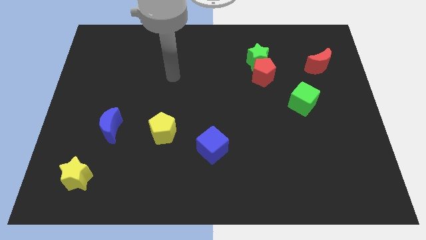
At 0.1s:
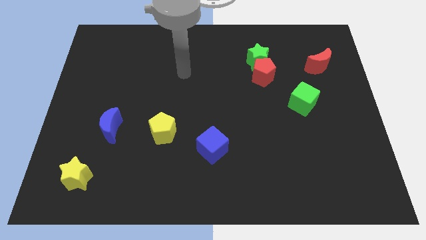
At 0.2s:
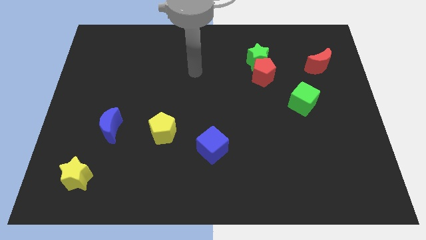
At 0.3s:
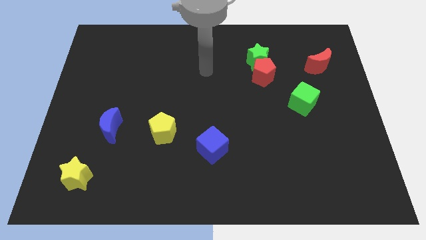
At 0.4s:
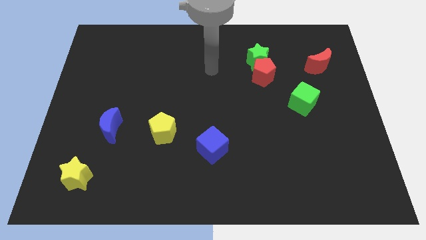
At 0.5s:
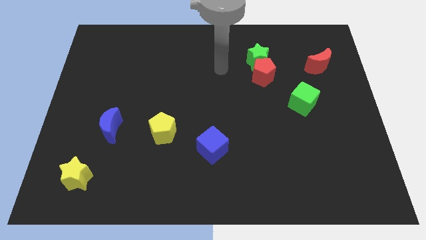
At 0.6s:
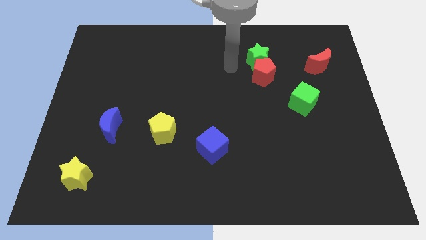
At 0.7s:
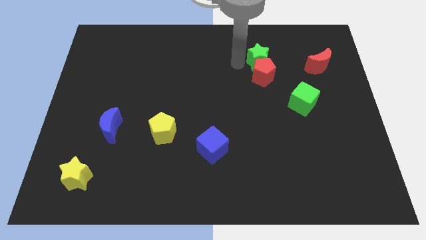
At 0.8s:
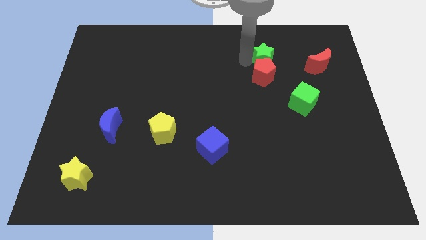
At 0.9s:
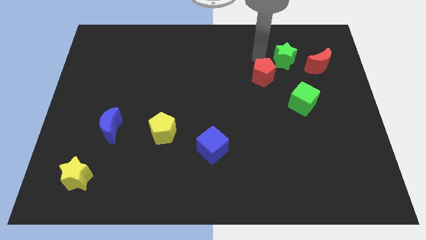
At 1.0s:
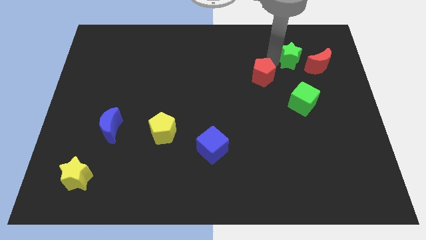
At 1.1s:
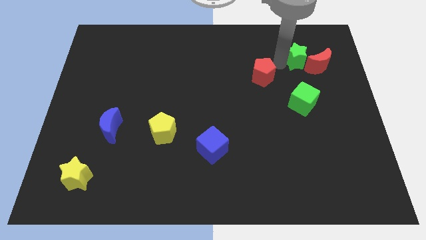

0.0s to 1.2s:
pull the red pentagon apart from the green star

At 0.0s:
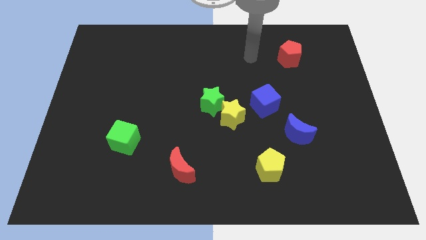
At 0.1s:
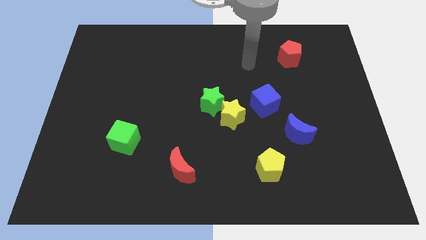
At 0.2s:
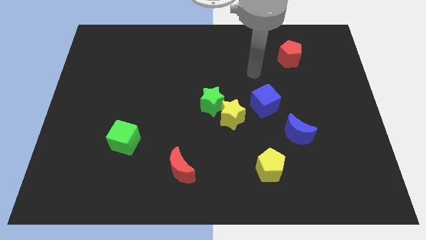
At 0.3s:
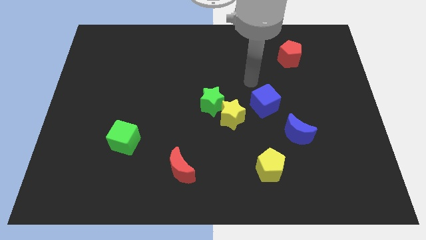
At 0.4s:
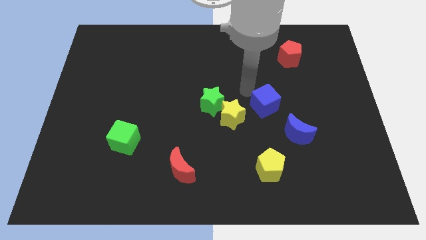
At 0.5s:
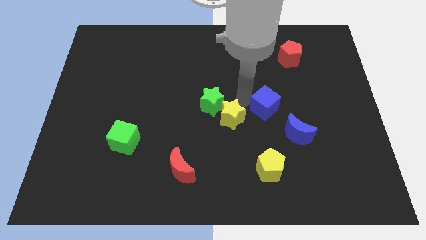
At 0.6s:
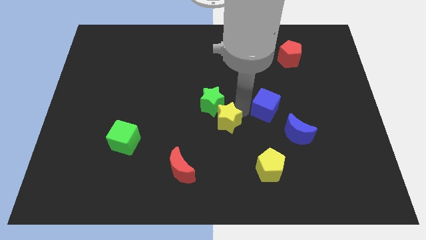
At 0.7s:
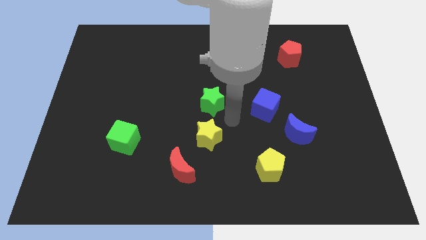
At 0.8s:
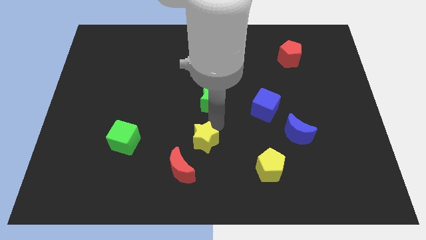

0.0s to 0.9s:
move the green star away from the yellow star

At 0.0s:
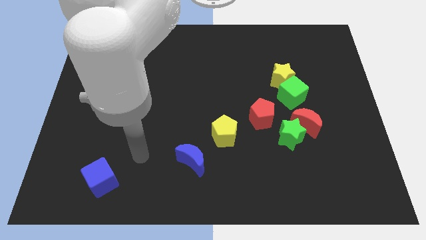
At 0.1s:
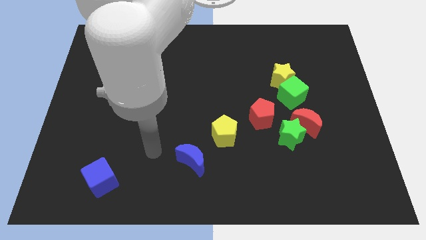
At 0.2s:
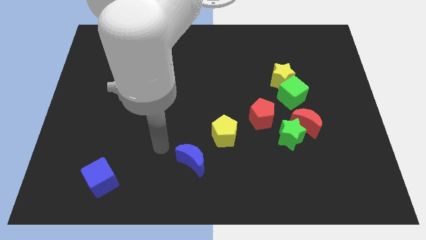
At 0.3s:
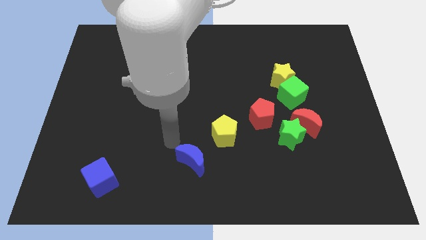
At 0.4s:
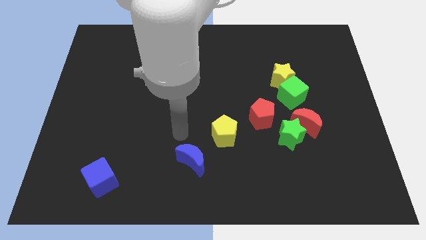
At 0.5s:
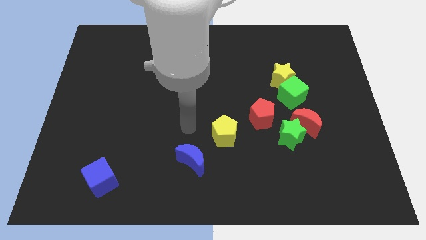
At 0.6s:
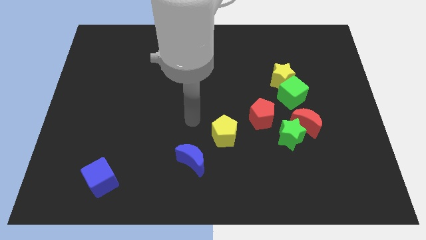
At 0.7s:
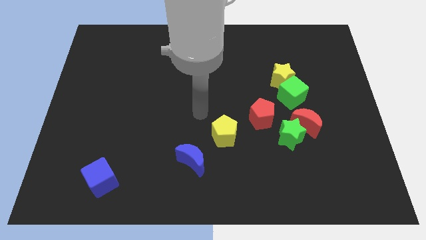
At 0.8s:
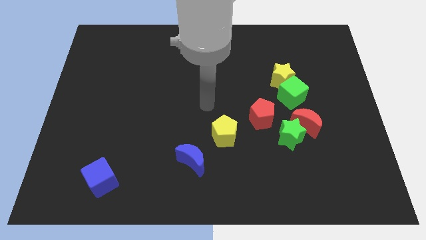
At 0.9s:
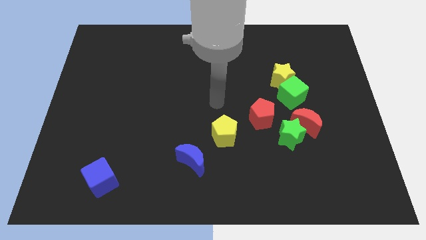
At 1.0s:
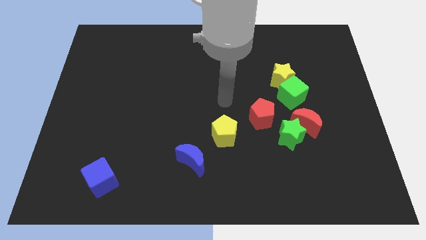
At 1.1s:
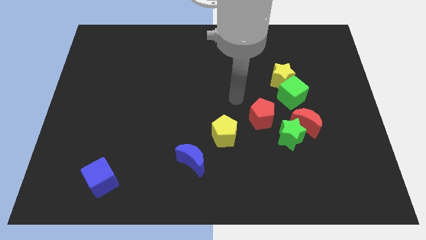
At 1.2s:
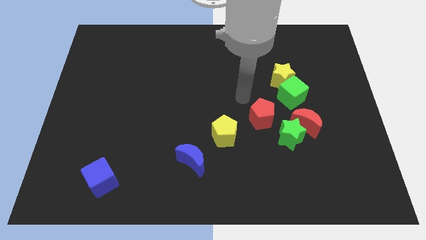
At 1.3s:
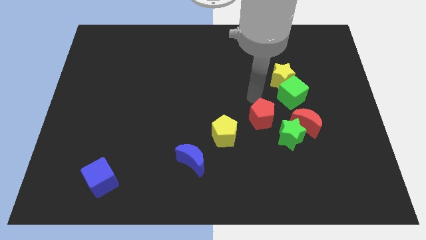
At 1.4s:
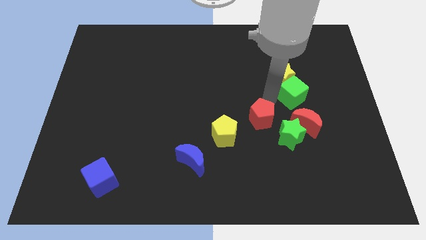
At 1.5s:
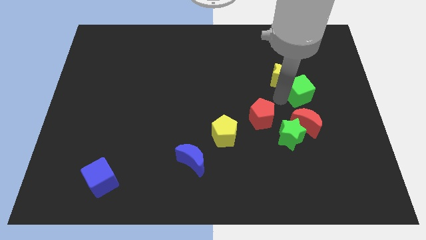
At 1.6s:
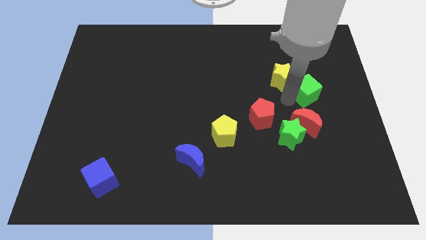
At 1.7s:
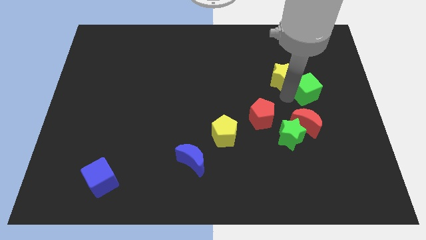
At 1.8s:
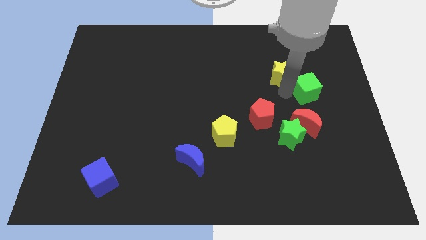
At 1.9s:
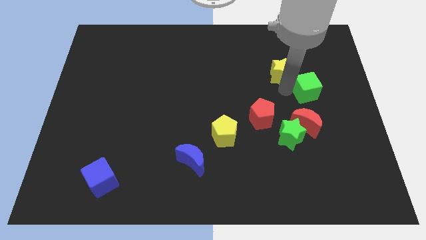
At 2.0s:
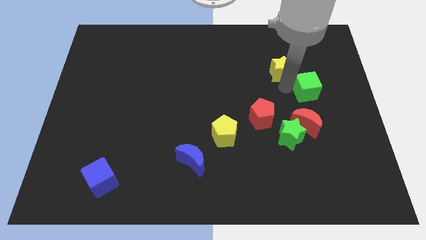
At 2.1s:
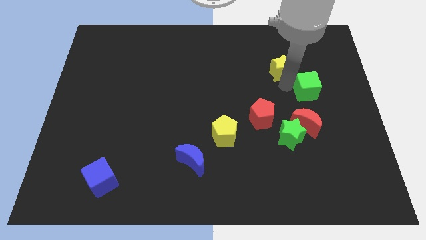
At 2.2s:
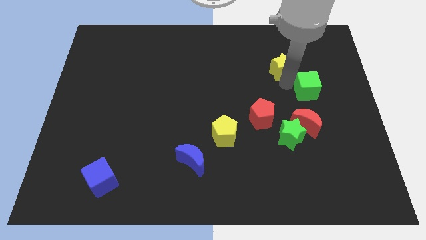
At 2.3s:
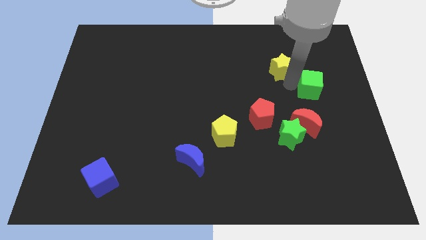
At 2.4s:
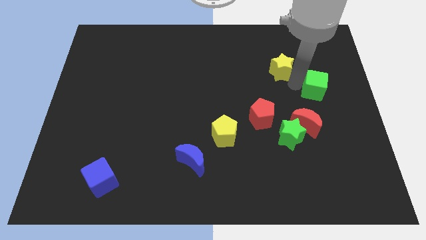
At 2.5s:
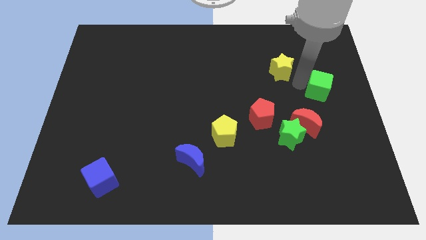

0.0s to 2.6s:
pull the yellow star apart from the green cube

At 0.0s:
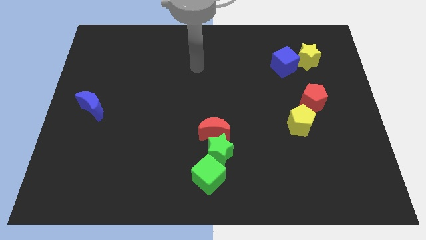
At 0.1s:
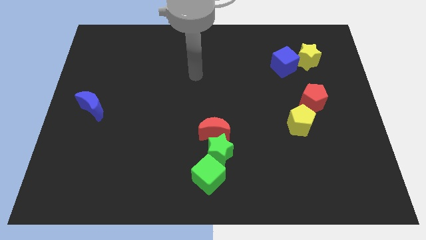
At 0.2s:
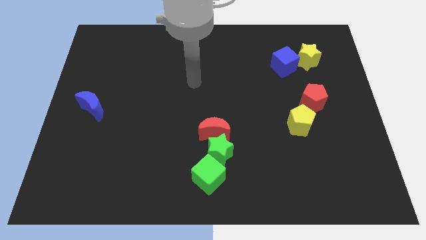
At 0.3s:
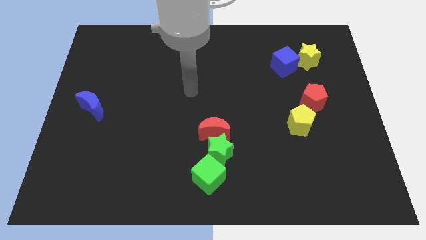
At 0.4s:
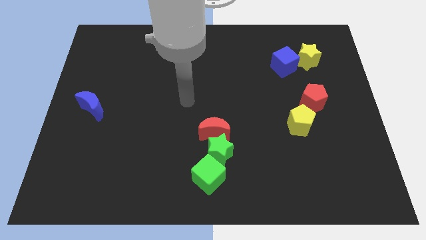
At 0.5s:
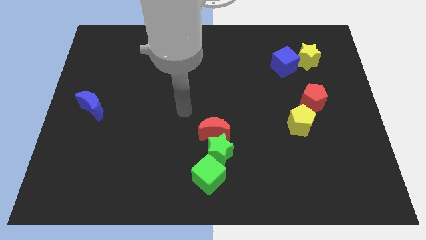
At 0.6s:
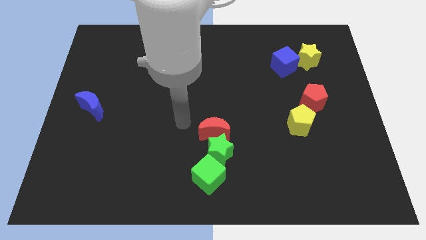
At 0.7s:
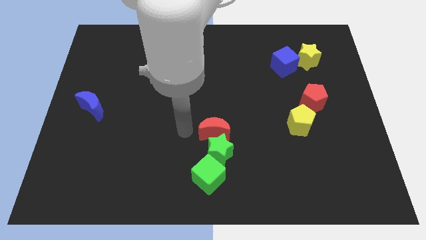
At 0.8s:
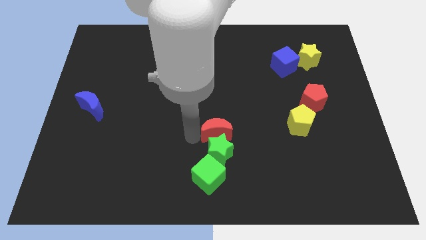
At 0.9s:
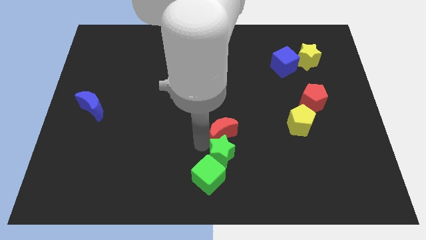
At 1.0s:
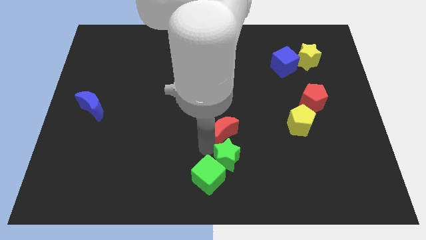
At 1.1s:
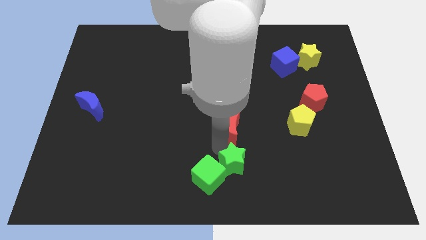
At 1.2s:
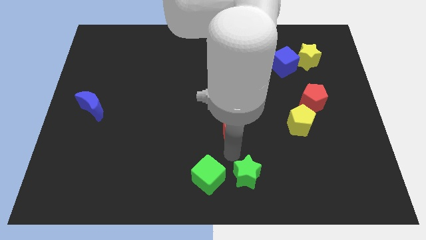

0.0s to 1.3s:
separate the red moon from the green star

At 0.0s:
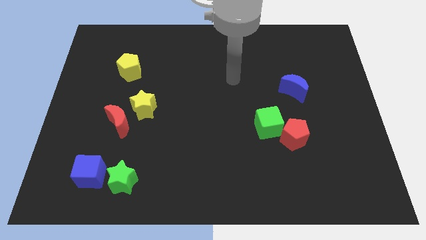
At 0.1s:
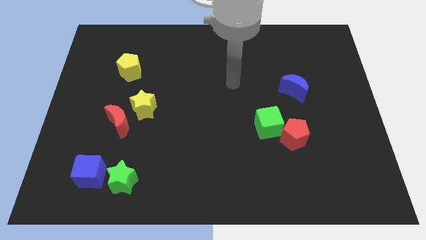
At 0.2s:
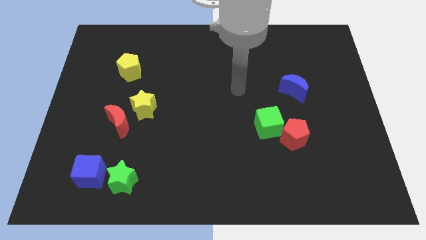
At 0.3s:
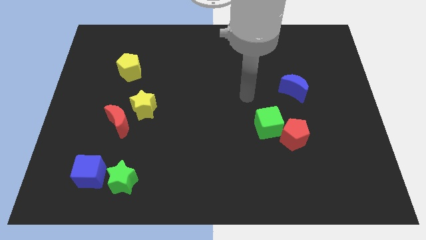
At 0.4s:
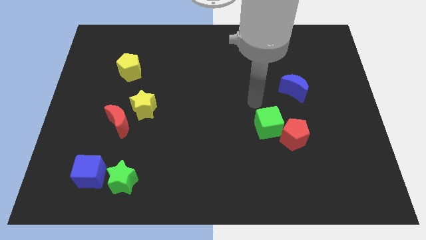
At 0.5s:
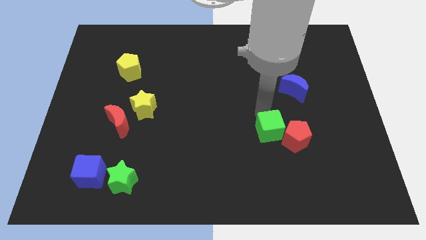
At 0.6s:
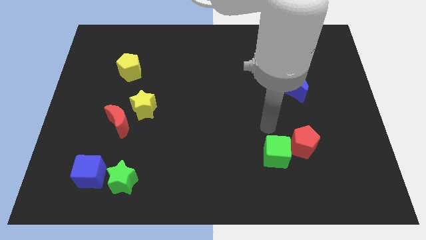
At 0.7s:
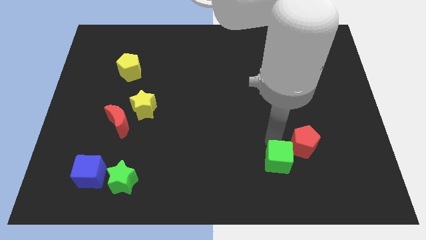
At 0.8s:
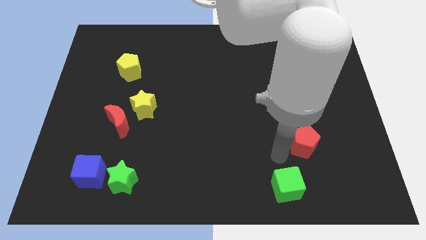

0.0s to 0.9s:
pull the red pentagon apart from the green cube

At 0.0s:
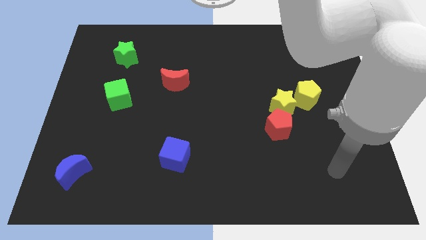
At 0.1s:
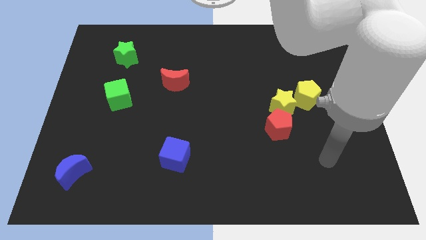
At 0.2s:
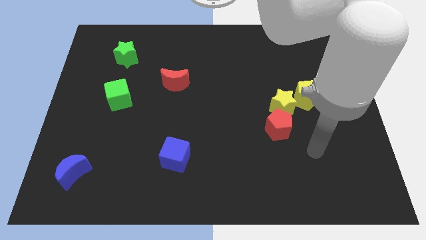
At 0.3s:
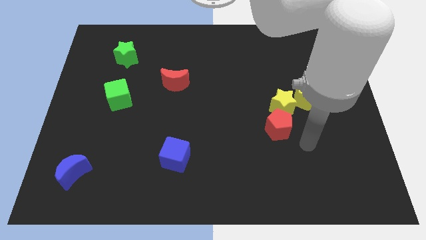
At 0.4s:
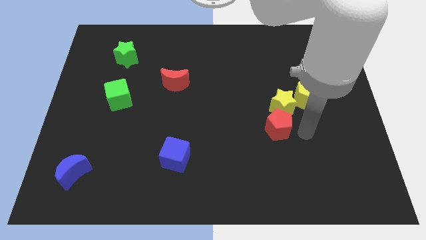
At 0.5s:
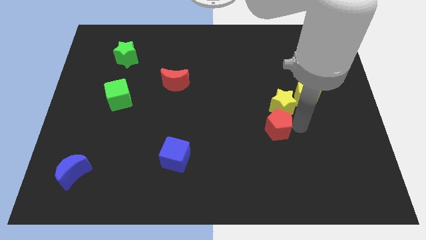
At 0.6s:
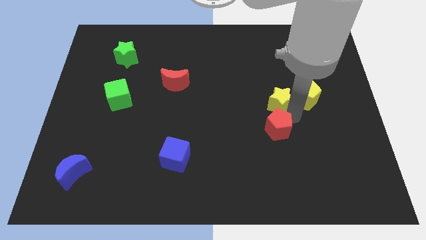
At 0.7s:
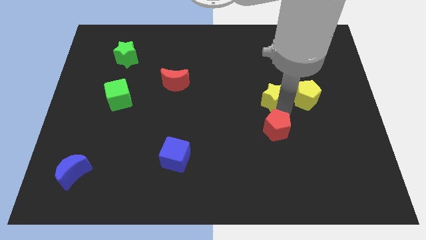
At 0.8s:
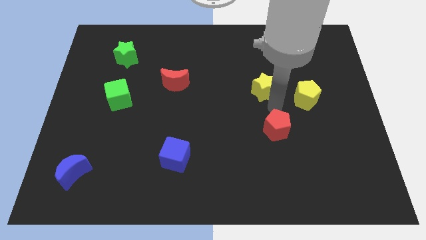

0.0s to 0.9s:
move the red pentagon away from the yellow star

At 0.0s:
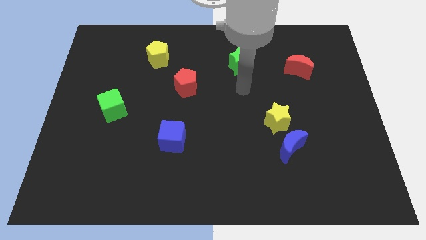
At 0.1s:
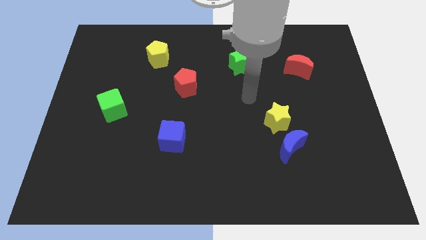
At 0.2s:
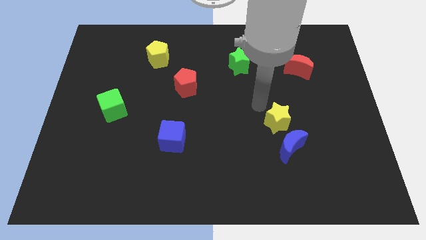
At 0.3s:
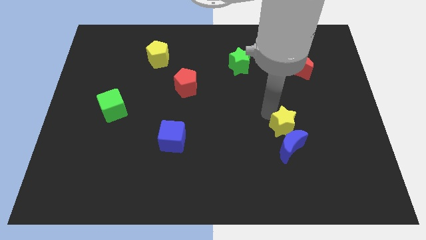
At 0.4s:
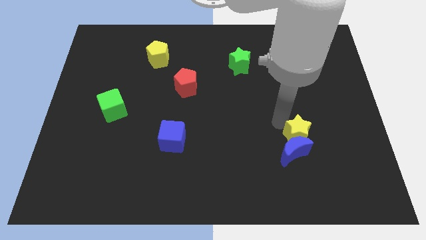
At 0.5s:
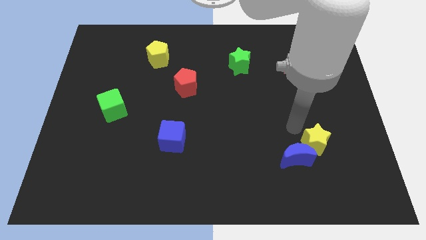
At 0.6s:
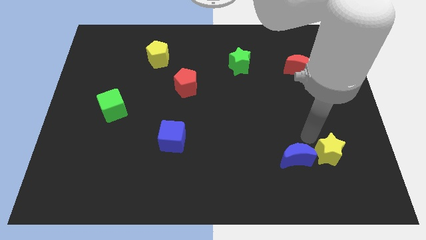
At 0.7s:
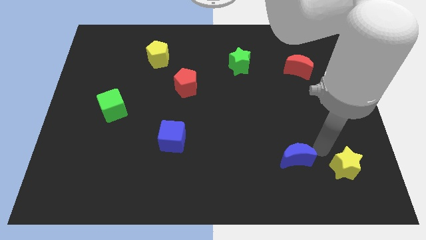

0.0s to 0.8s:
pull the blue moon apart from the yellow star

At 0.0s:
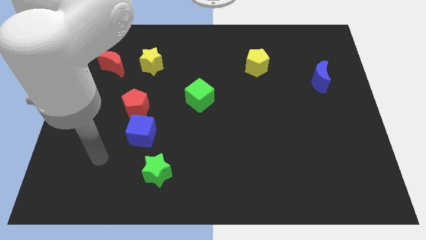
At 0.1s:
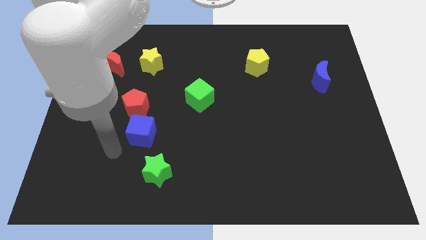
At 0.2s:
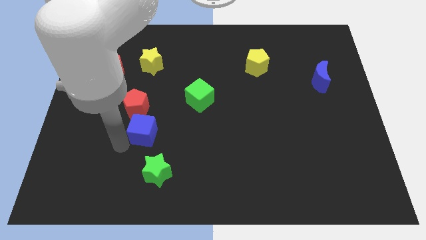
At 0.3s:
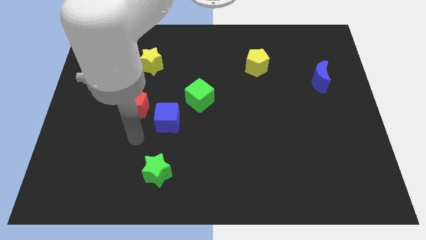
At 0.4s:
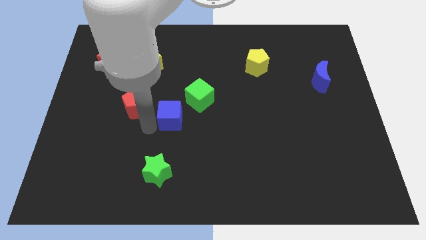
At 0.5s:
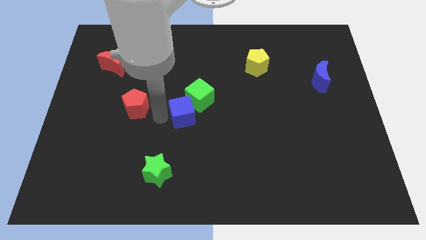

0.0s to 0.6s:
separate the red pentagon from the blue cube

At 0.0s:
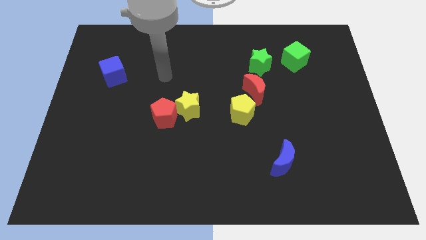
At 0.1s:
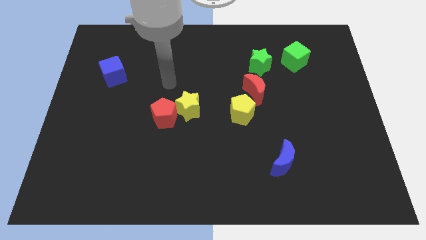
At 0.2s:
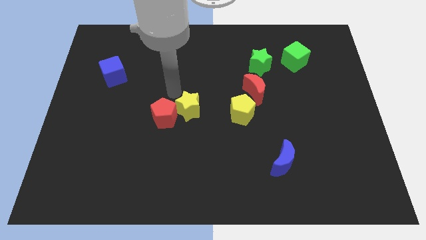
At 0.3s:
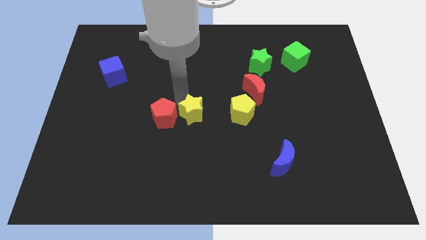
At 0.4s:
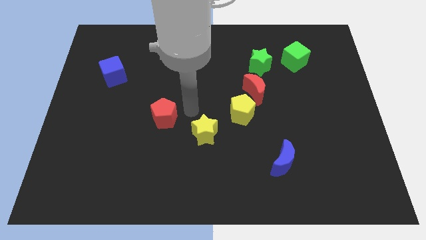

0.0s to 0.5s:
separate the red pentagon from the yellow star
